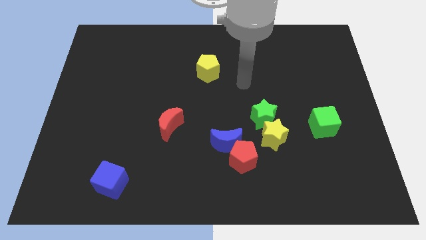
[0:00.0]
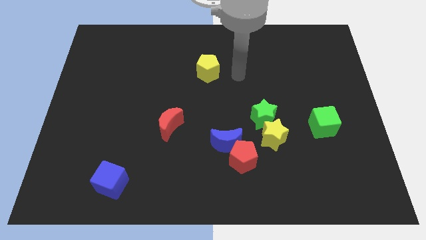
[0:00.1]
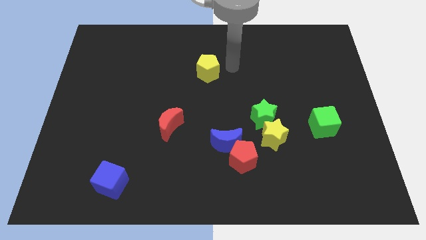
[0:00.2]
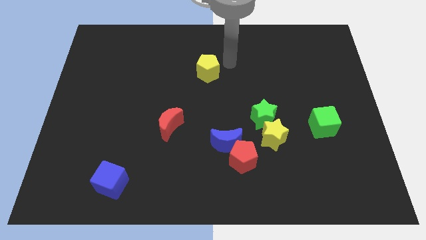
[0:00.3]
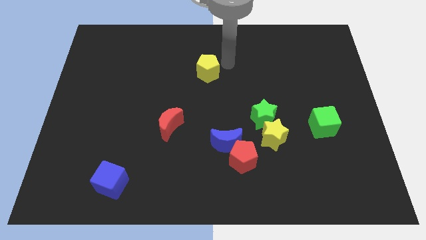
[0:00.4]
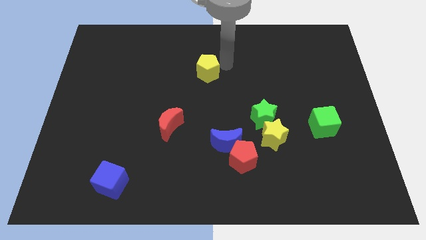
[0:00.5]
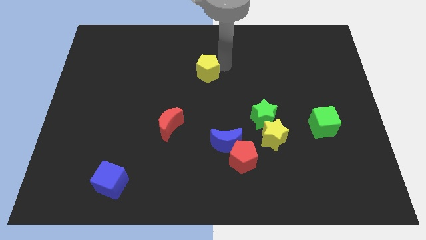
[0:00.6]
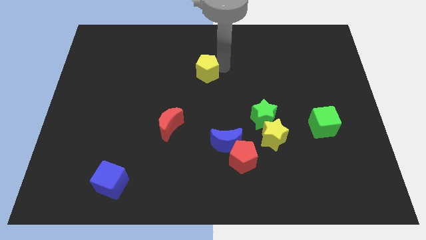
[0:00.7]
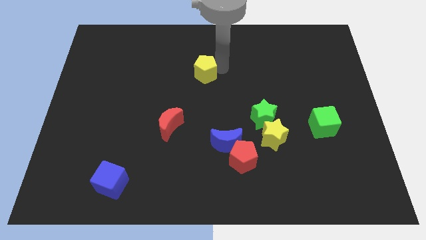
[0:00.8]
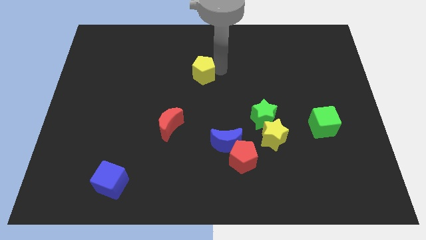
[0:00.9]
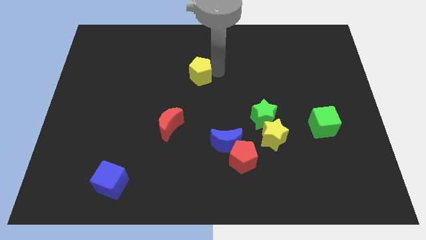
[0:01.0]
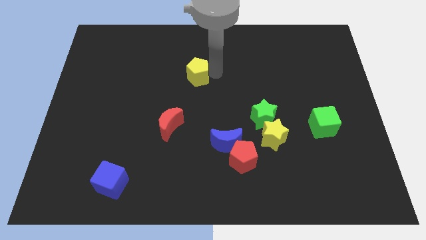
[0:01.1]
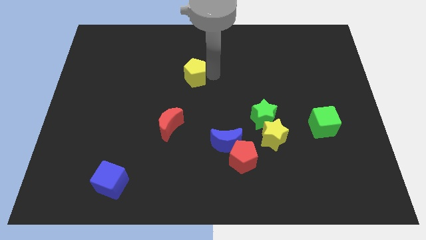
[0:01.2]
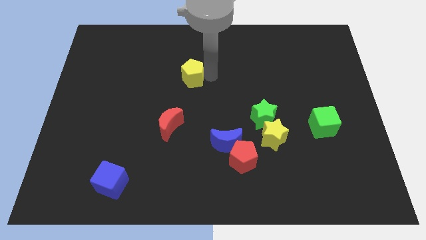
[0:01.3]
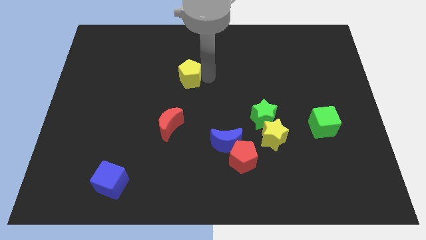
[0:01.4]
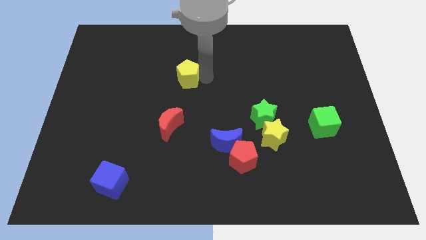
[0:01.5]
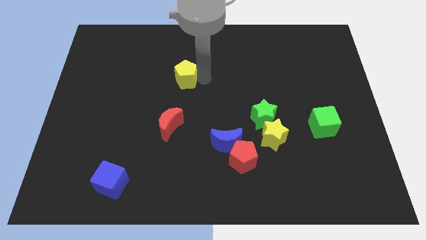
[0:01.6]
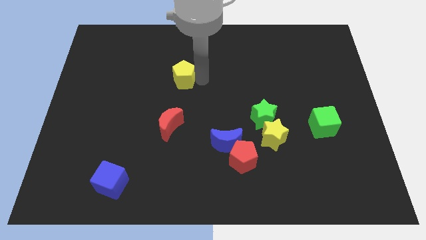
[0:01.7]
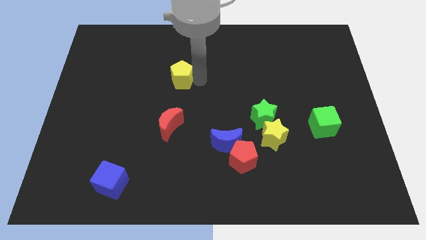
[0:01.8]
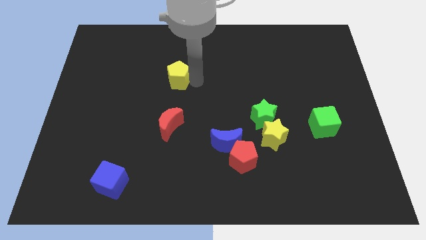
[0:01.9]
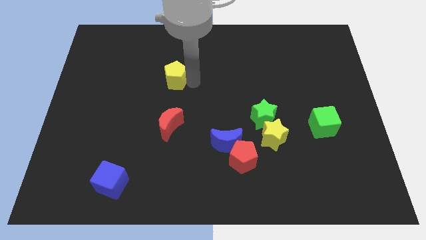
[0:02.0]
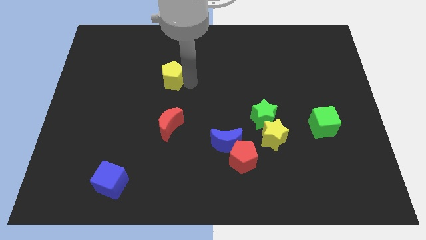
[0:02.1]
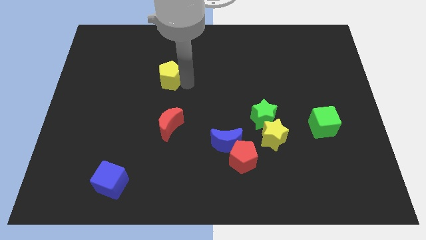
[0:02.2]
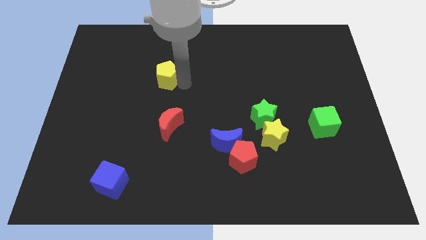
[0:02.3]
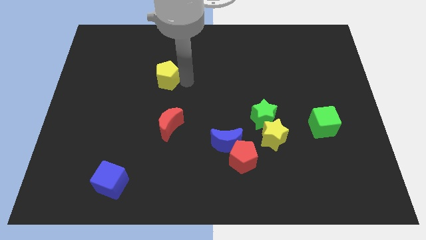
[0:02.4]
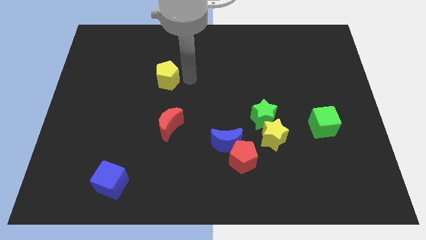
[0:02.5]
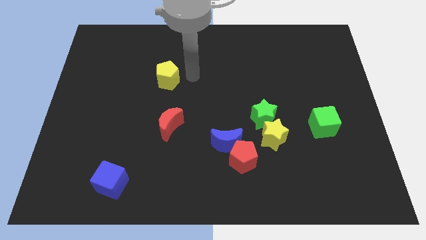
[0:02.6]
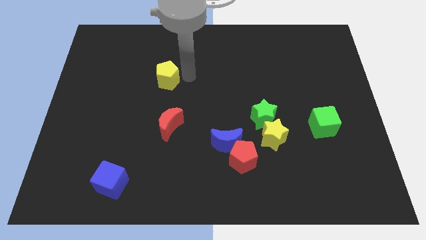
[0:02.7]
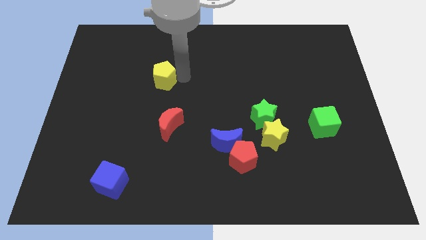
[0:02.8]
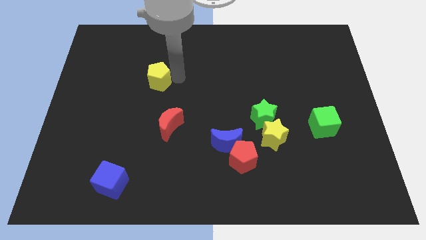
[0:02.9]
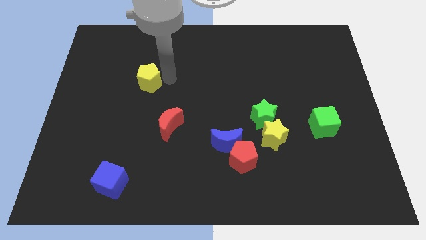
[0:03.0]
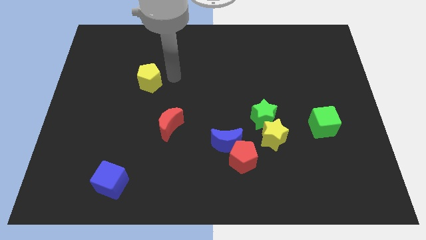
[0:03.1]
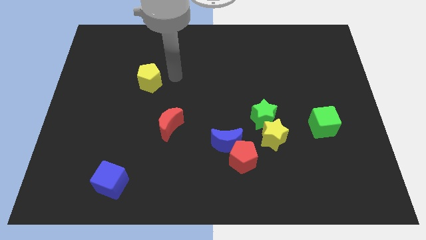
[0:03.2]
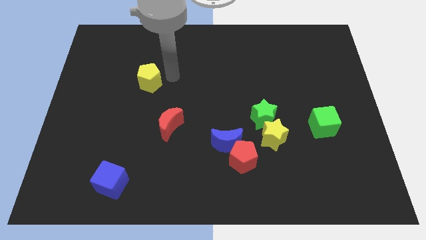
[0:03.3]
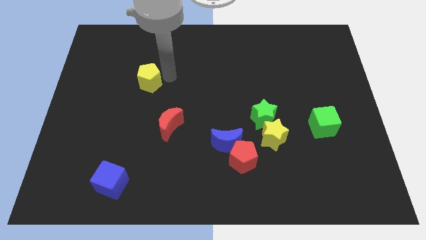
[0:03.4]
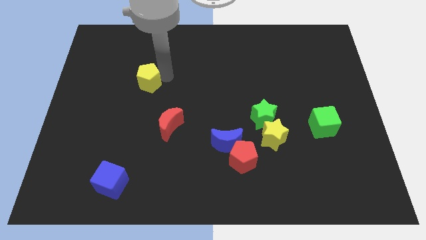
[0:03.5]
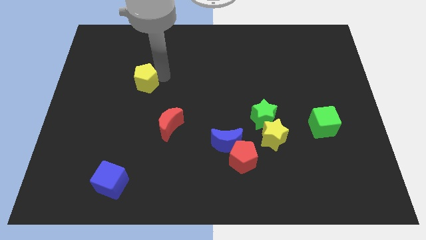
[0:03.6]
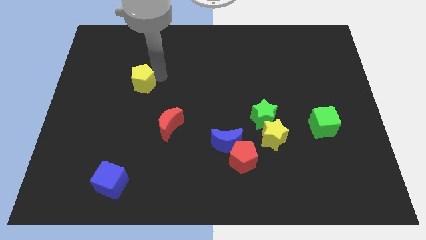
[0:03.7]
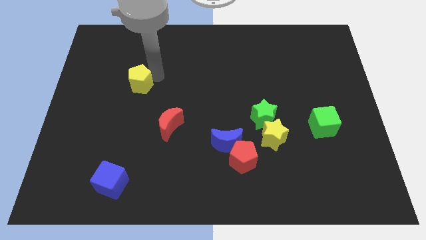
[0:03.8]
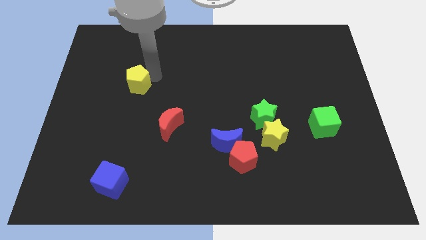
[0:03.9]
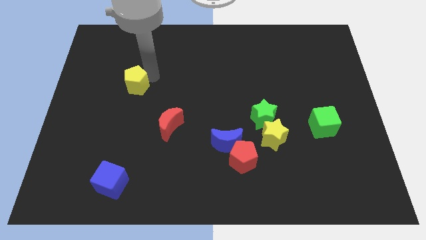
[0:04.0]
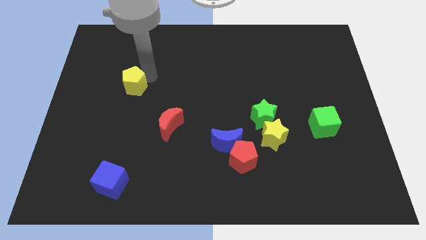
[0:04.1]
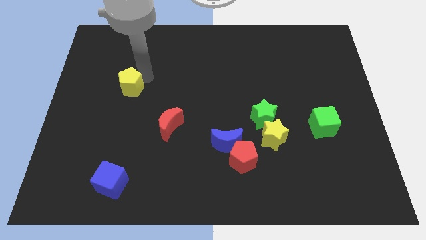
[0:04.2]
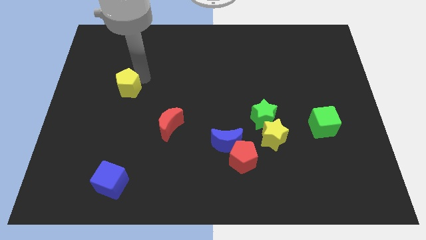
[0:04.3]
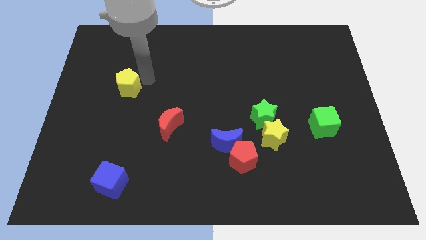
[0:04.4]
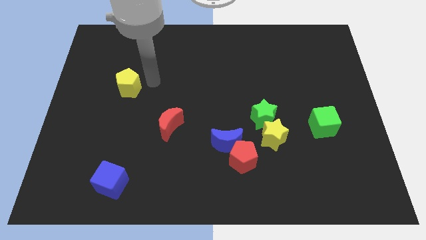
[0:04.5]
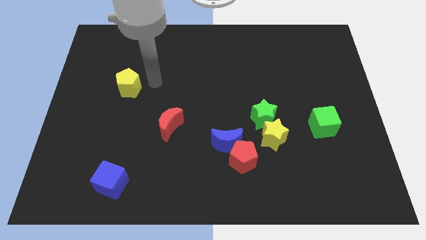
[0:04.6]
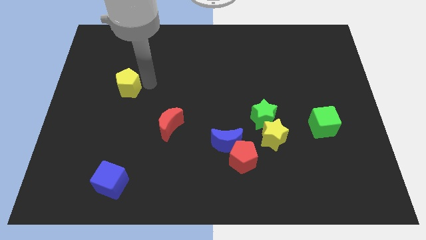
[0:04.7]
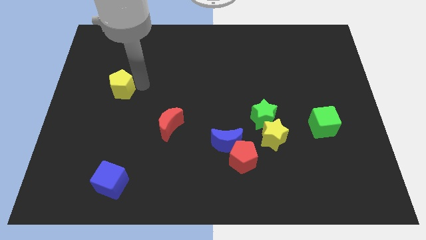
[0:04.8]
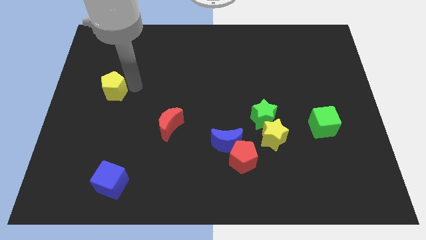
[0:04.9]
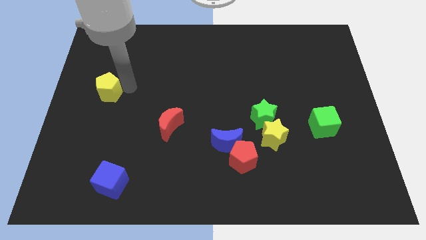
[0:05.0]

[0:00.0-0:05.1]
move the yellow pentagon to the left side

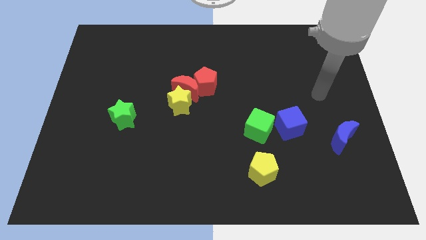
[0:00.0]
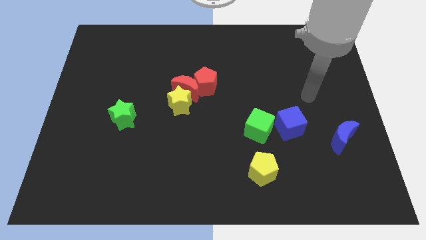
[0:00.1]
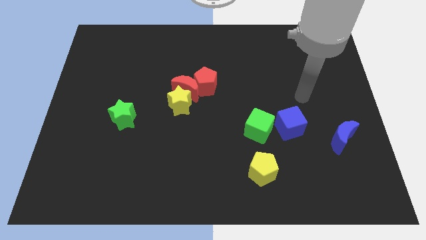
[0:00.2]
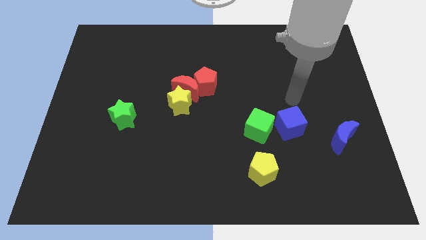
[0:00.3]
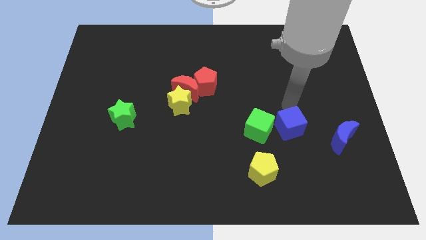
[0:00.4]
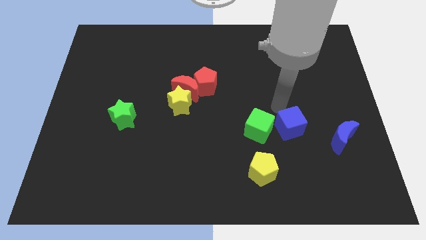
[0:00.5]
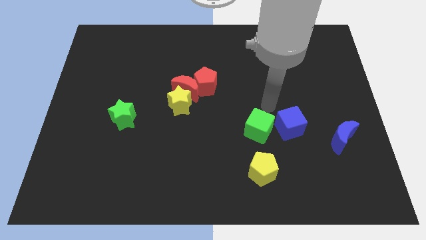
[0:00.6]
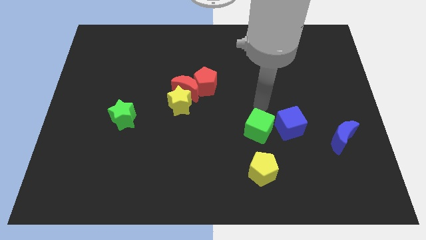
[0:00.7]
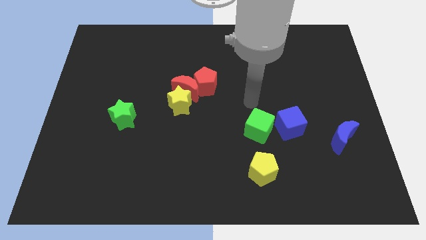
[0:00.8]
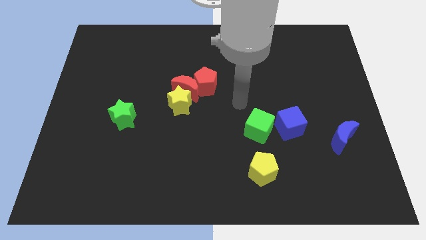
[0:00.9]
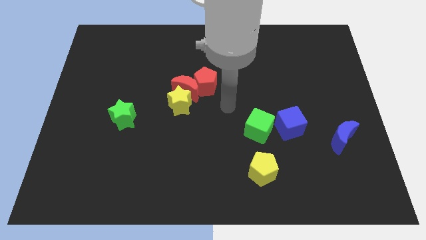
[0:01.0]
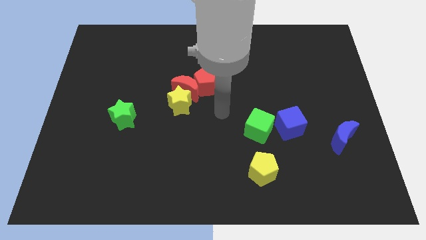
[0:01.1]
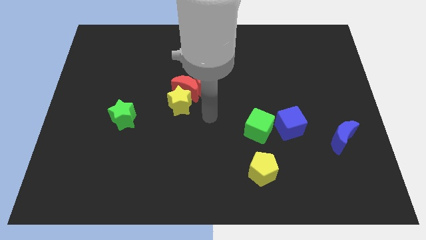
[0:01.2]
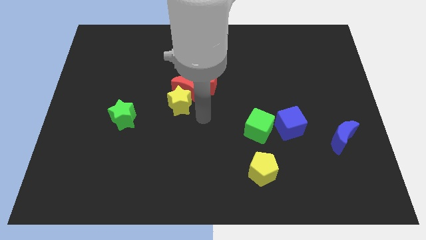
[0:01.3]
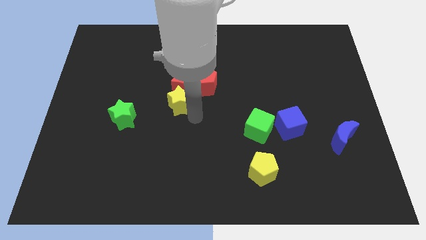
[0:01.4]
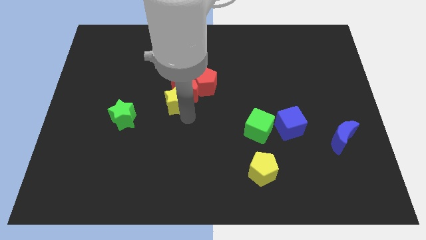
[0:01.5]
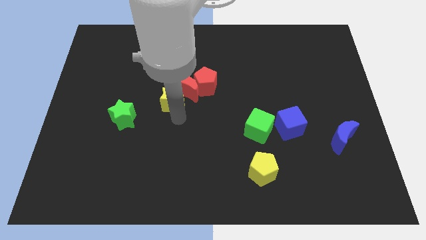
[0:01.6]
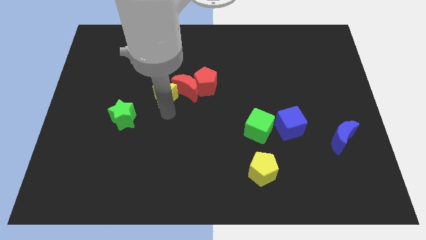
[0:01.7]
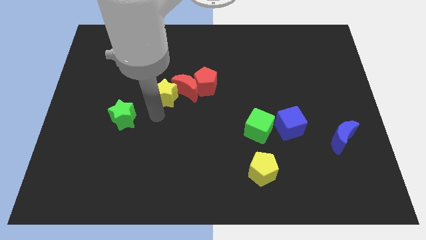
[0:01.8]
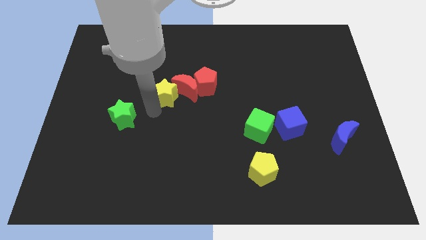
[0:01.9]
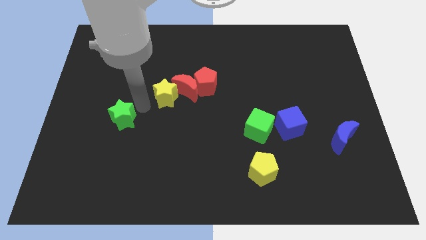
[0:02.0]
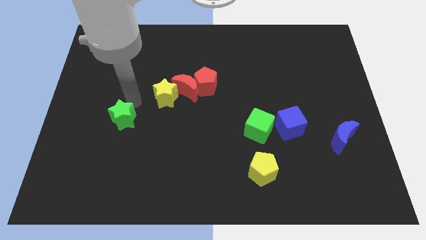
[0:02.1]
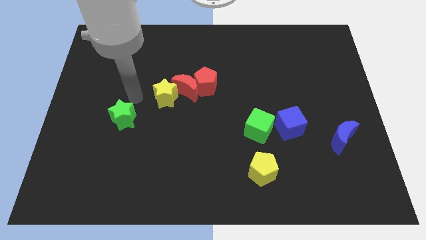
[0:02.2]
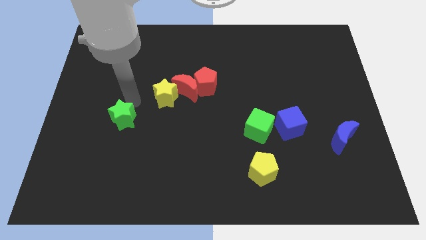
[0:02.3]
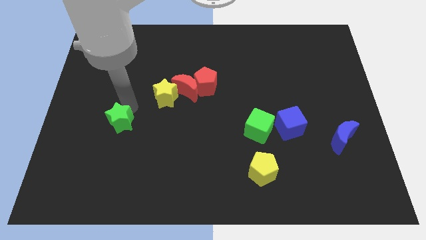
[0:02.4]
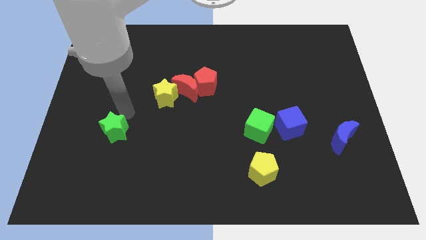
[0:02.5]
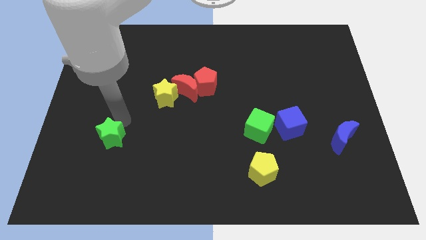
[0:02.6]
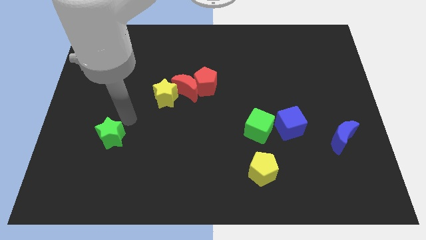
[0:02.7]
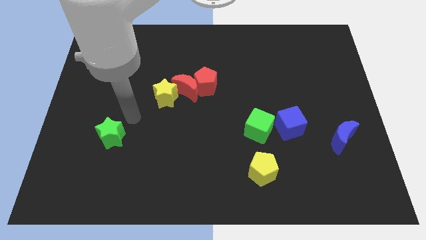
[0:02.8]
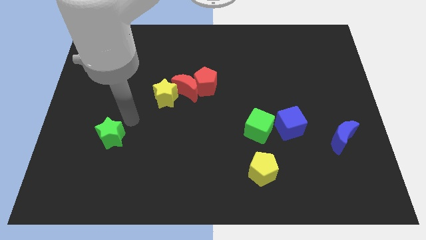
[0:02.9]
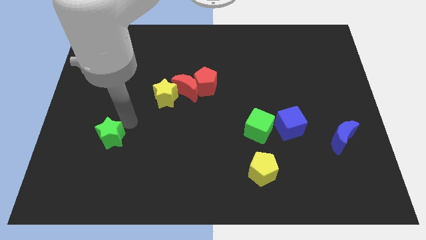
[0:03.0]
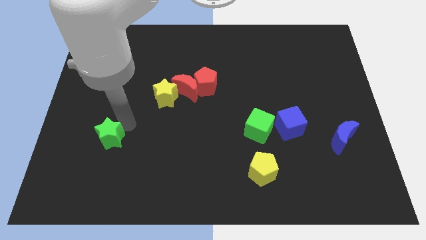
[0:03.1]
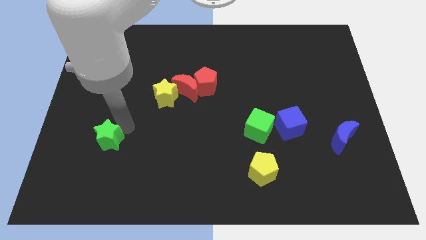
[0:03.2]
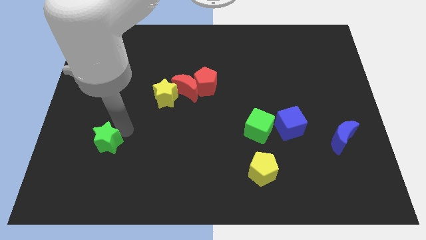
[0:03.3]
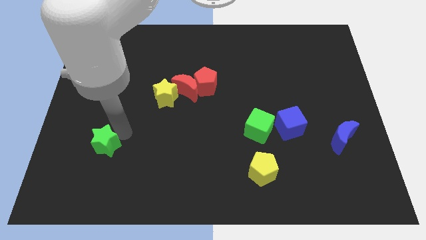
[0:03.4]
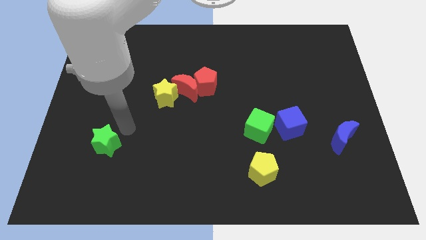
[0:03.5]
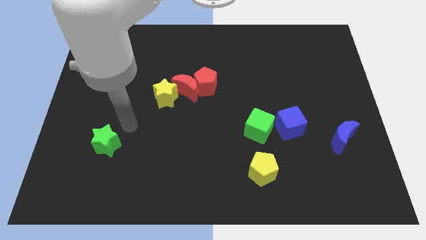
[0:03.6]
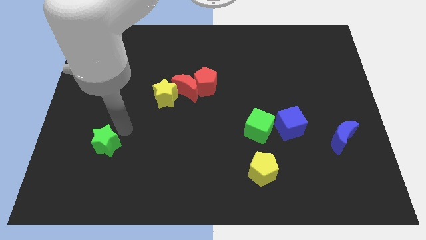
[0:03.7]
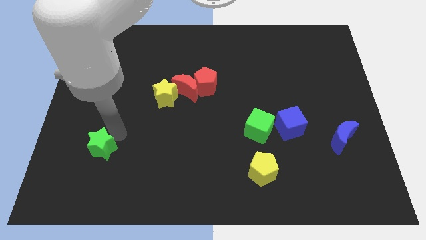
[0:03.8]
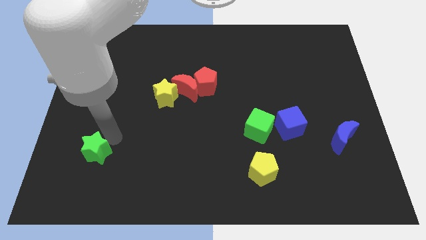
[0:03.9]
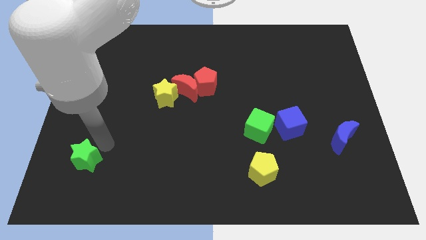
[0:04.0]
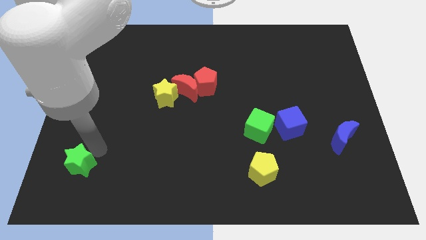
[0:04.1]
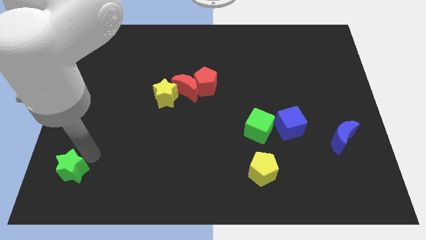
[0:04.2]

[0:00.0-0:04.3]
move the green star to the bottom left of the board
